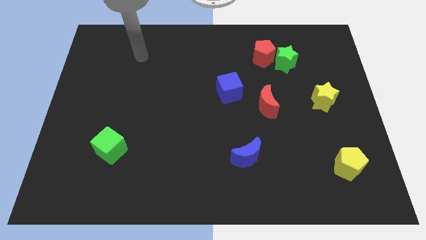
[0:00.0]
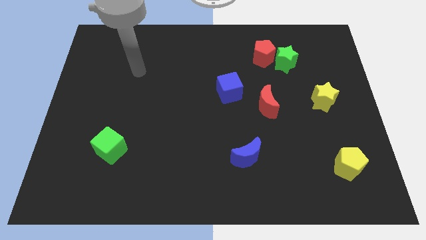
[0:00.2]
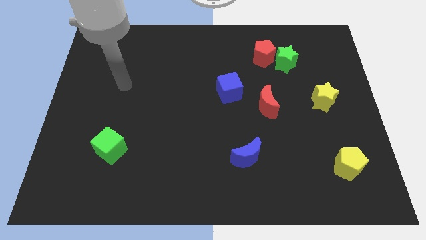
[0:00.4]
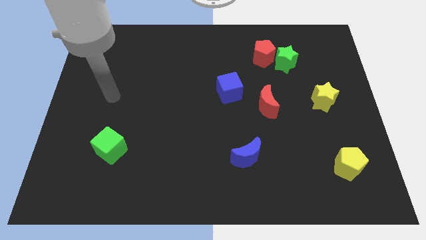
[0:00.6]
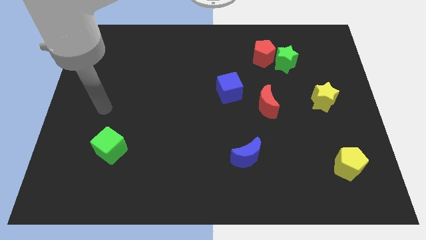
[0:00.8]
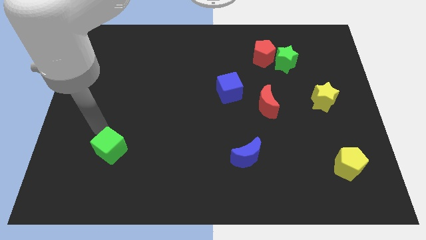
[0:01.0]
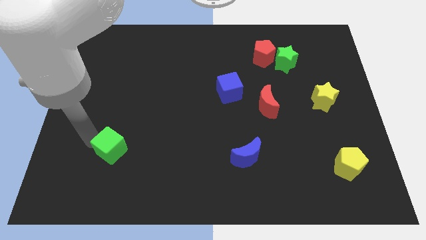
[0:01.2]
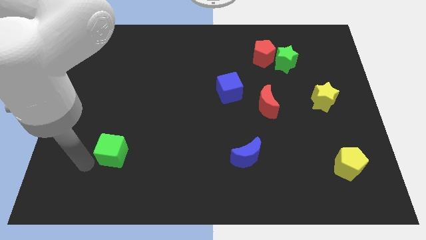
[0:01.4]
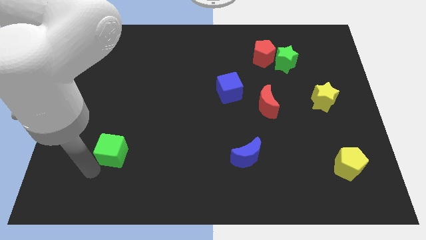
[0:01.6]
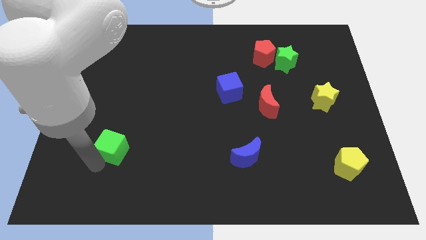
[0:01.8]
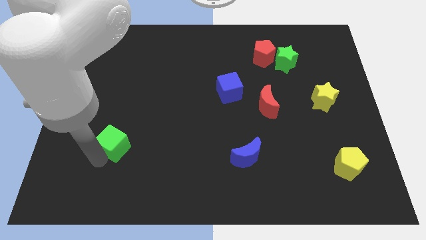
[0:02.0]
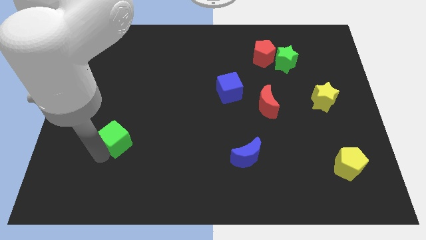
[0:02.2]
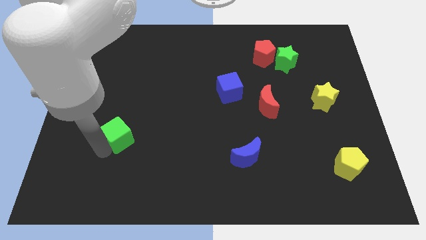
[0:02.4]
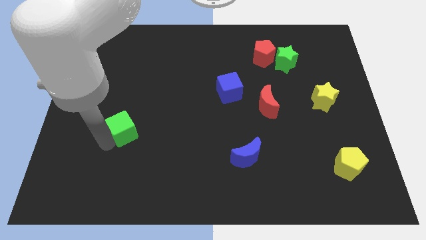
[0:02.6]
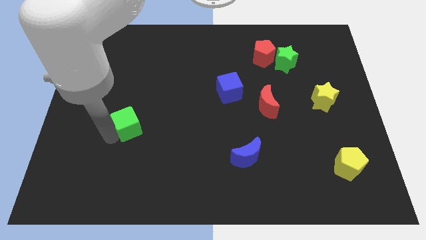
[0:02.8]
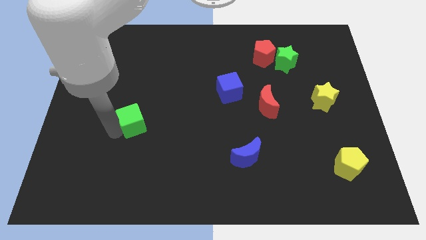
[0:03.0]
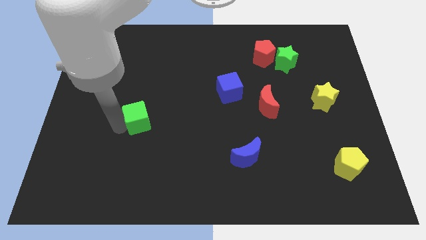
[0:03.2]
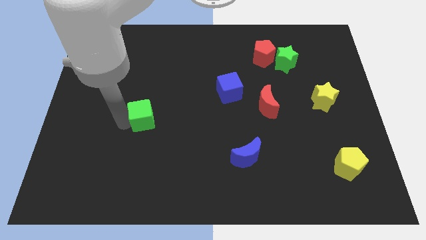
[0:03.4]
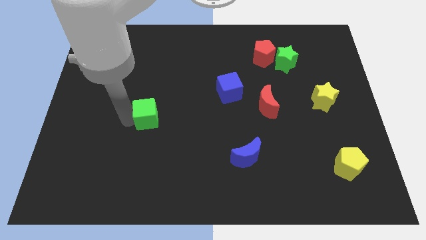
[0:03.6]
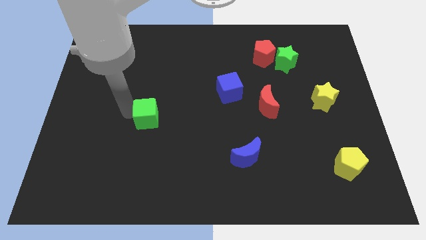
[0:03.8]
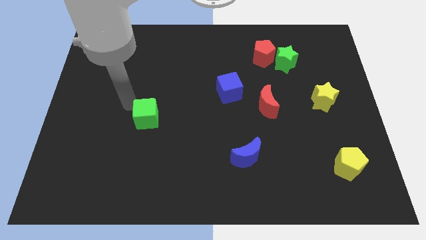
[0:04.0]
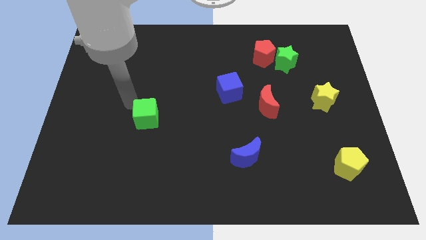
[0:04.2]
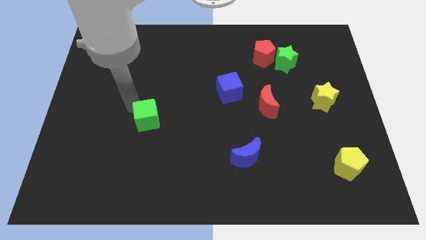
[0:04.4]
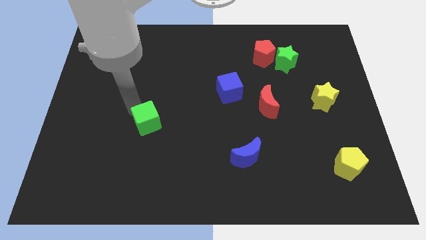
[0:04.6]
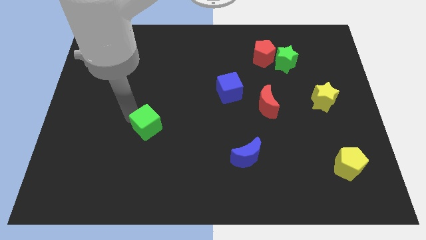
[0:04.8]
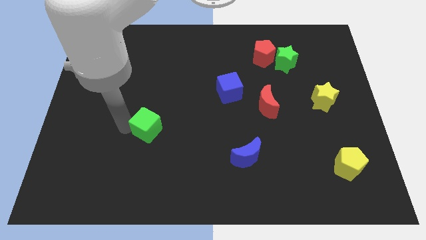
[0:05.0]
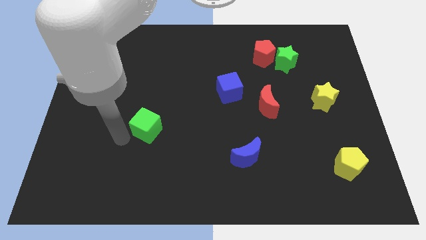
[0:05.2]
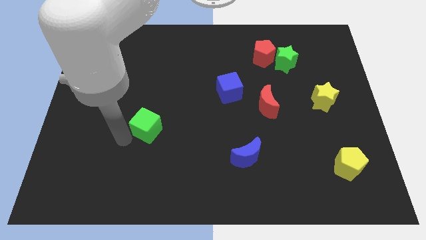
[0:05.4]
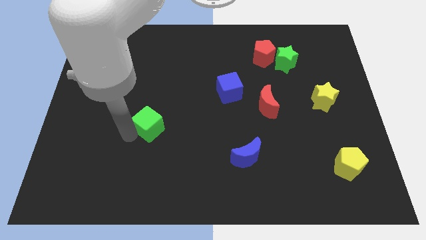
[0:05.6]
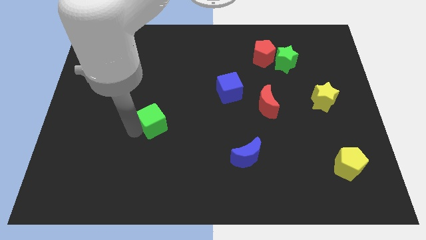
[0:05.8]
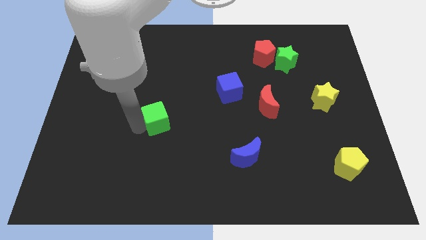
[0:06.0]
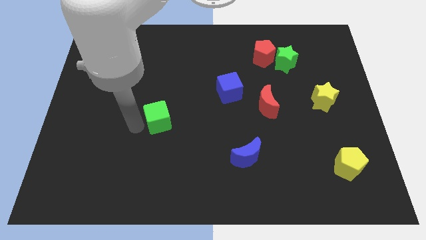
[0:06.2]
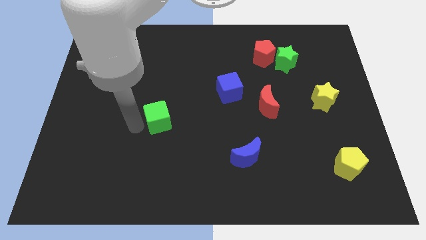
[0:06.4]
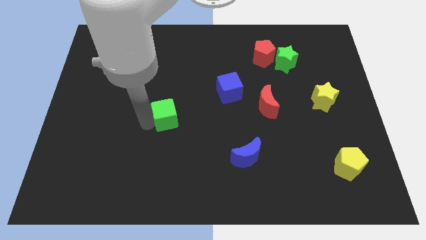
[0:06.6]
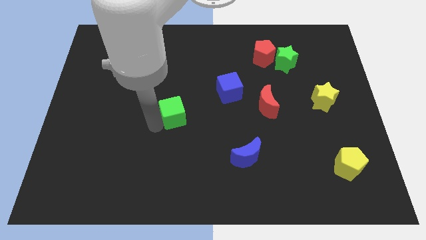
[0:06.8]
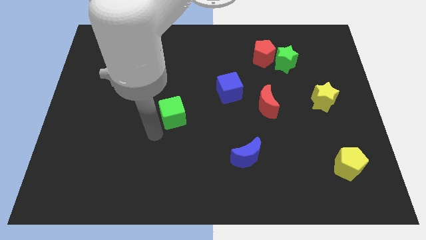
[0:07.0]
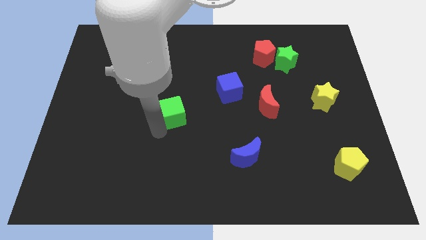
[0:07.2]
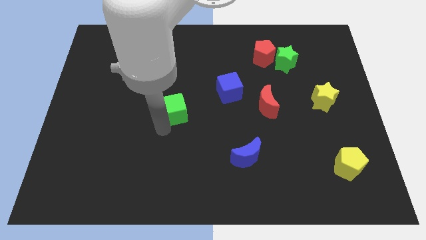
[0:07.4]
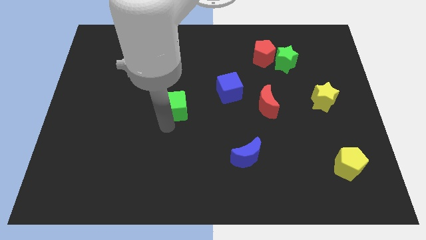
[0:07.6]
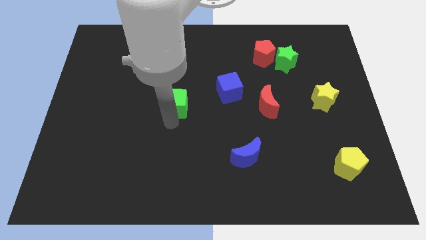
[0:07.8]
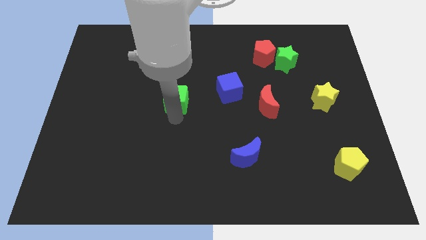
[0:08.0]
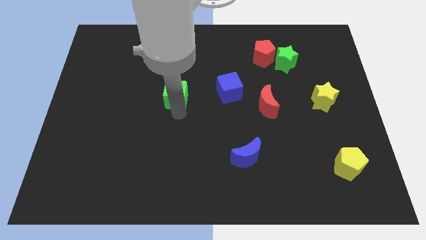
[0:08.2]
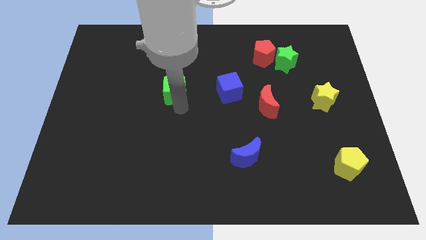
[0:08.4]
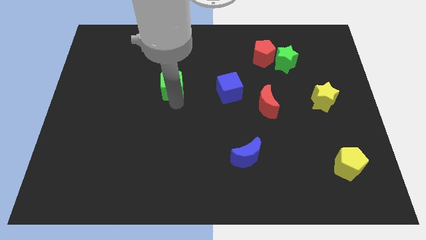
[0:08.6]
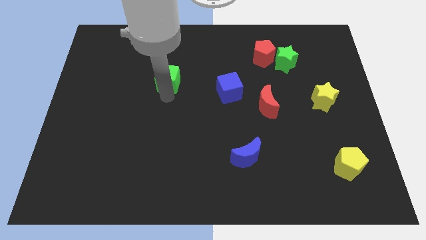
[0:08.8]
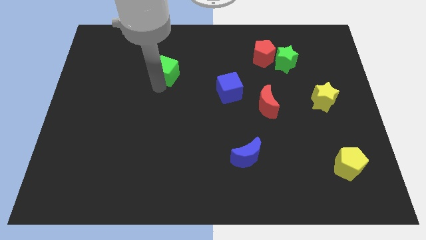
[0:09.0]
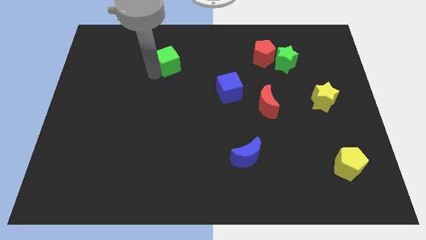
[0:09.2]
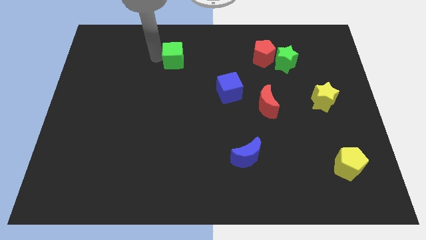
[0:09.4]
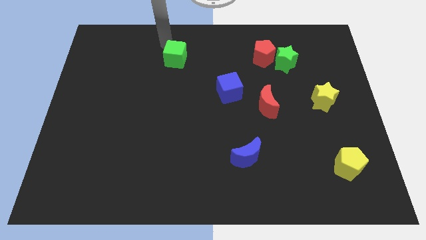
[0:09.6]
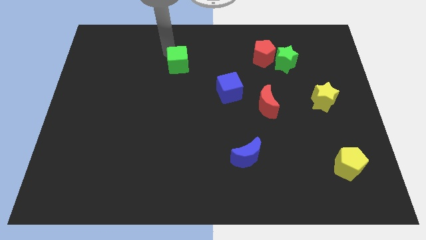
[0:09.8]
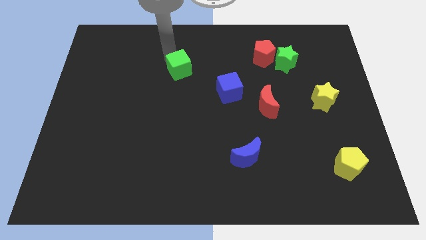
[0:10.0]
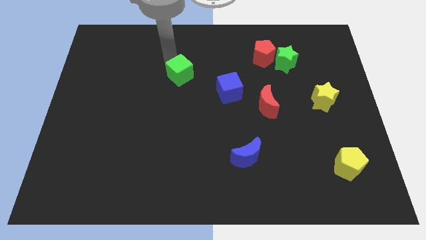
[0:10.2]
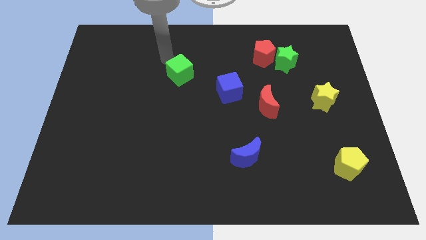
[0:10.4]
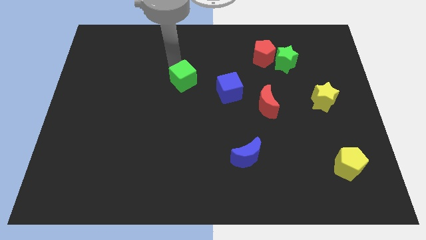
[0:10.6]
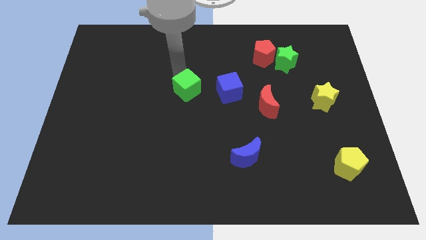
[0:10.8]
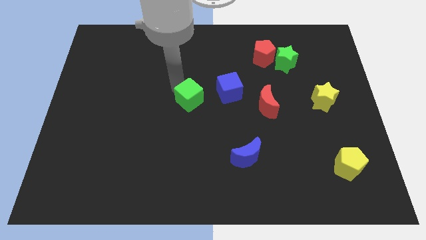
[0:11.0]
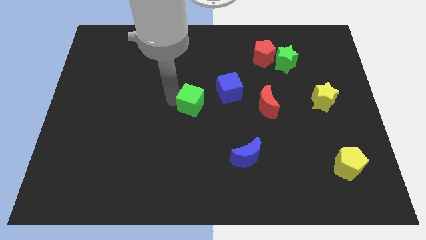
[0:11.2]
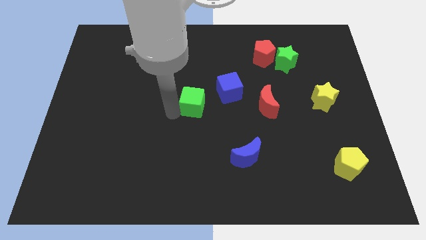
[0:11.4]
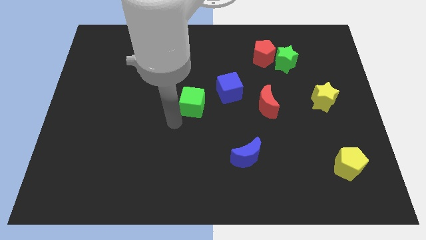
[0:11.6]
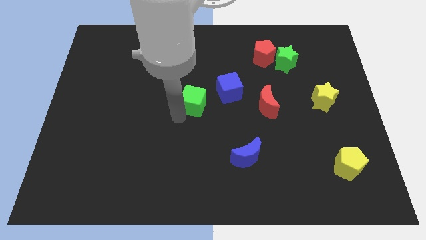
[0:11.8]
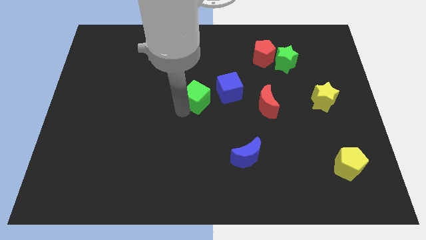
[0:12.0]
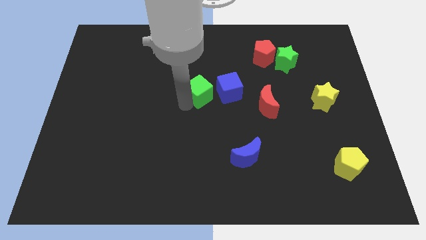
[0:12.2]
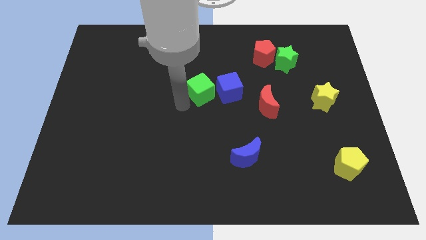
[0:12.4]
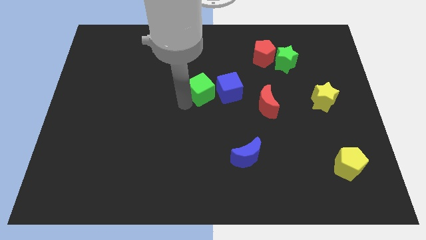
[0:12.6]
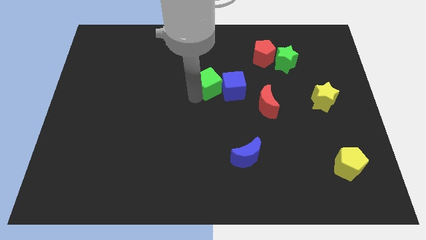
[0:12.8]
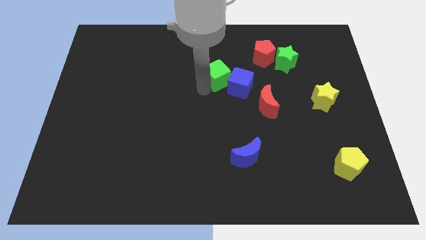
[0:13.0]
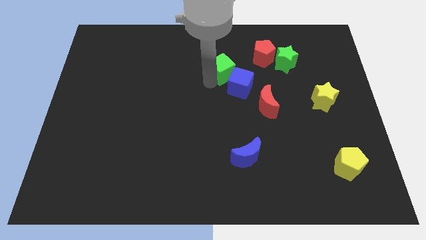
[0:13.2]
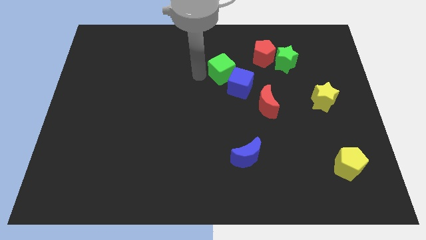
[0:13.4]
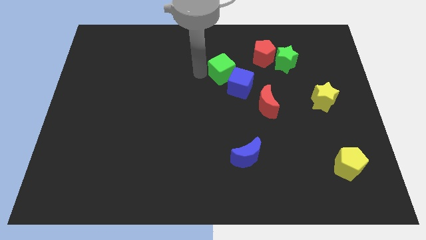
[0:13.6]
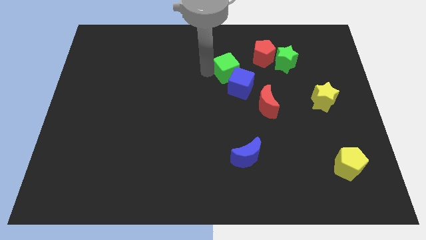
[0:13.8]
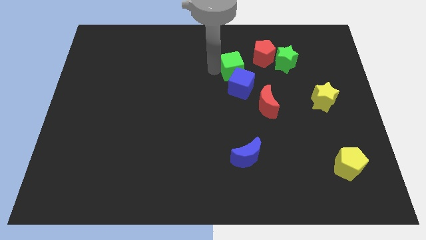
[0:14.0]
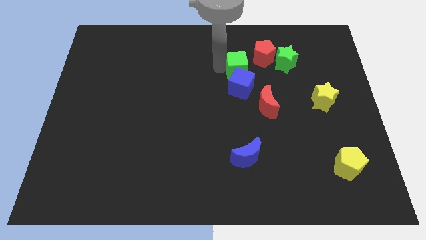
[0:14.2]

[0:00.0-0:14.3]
move the green cube to the top right side of the blue cube
